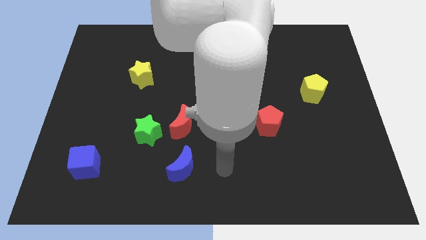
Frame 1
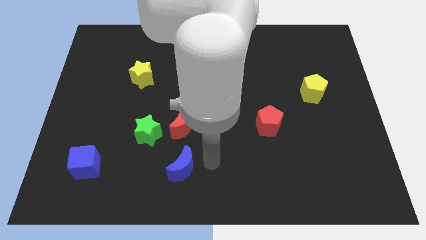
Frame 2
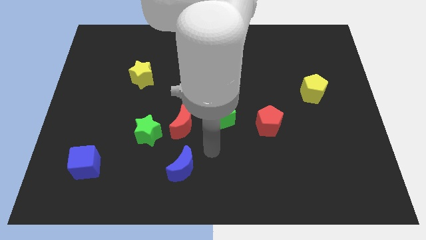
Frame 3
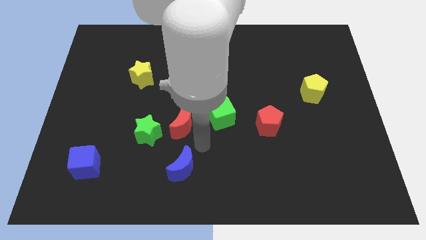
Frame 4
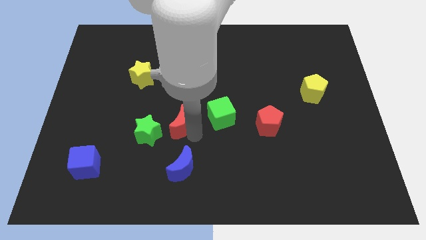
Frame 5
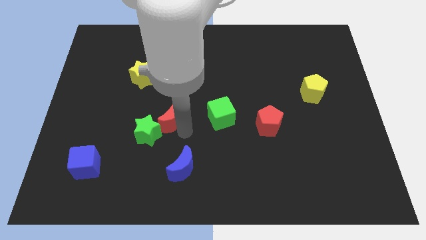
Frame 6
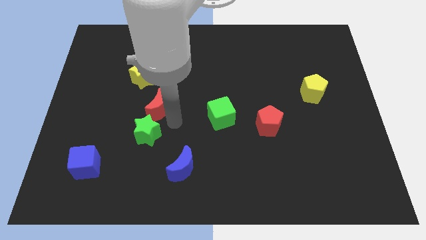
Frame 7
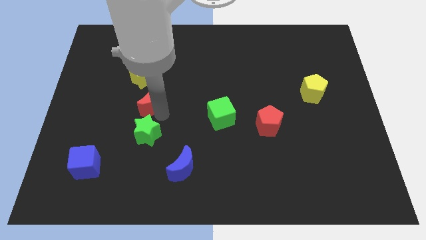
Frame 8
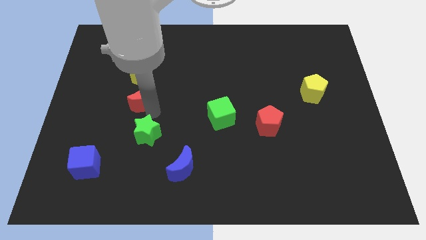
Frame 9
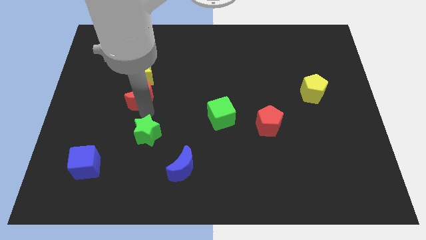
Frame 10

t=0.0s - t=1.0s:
pull the green star apart from the red moon

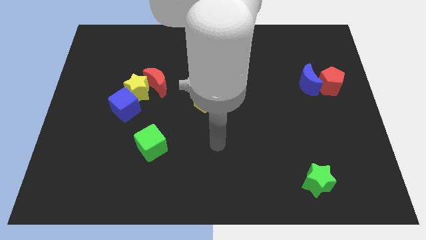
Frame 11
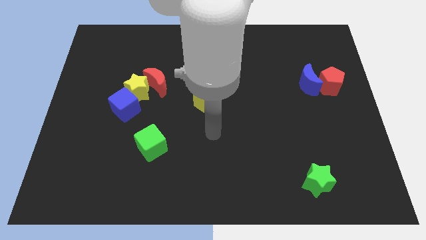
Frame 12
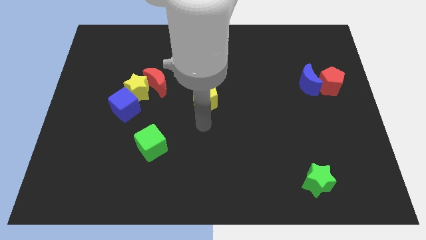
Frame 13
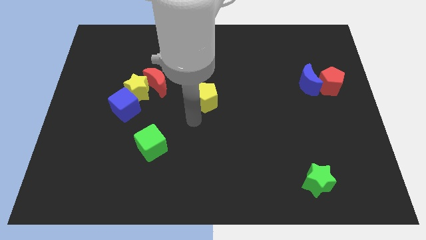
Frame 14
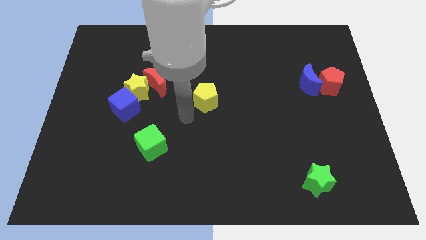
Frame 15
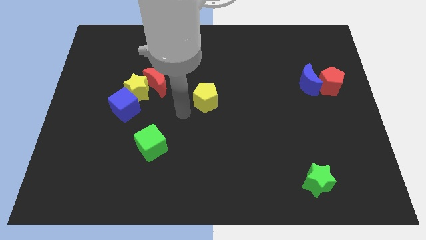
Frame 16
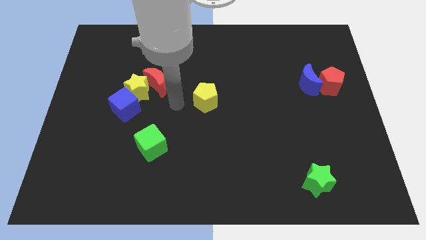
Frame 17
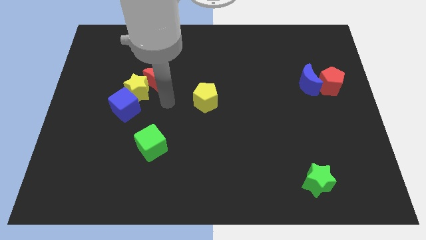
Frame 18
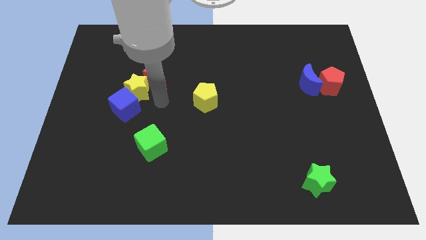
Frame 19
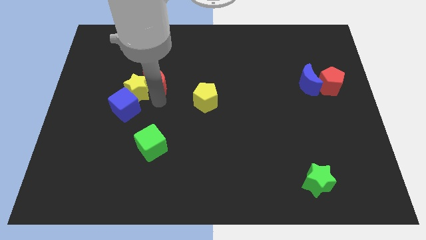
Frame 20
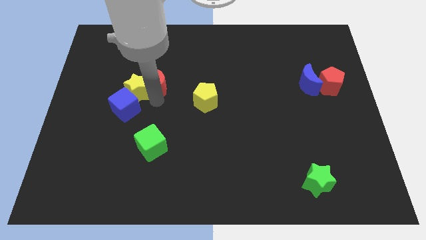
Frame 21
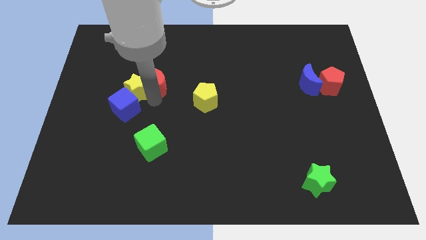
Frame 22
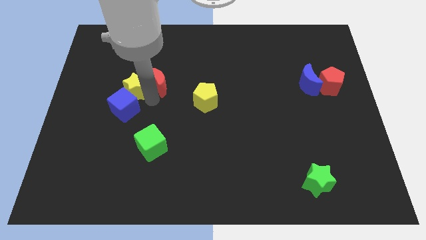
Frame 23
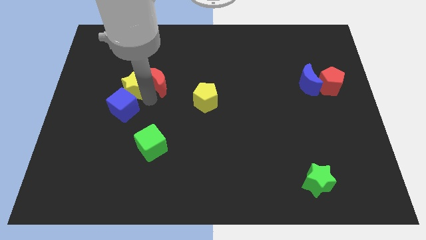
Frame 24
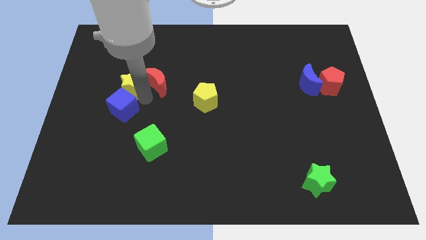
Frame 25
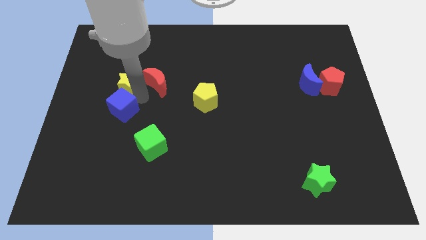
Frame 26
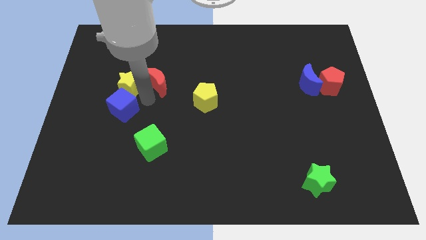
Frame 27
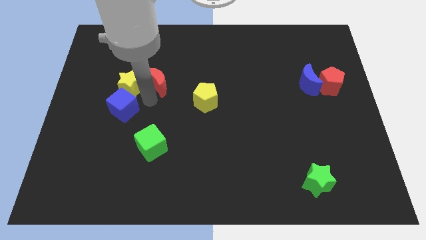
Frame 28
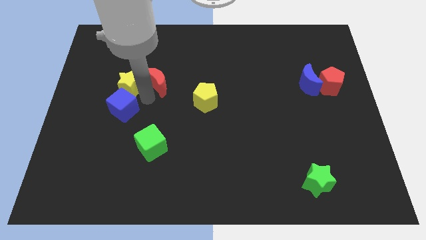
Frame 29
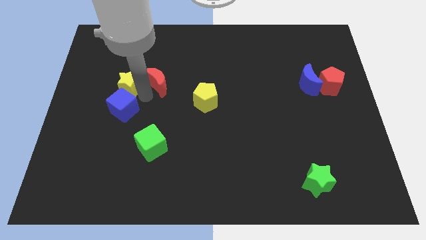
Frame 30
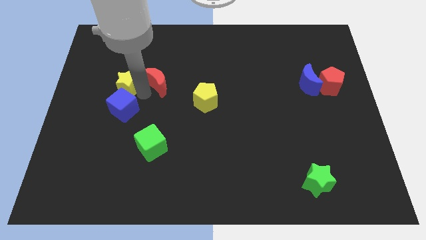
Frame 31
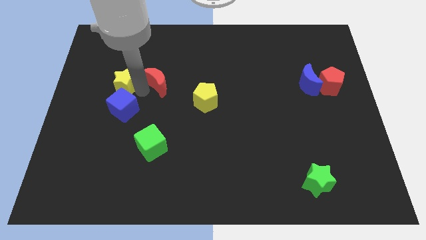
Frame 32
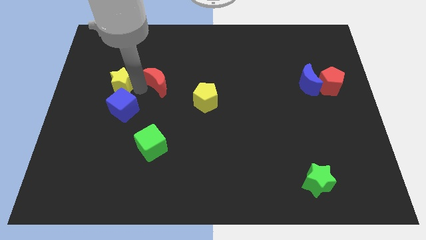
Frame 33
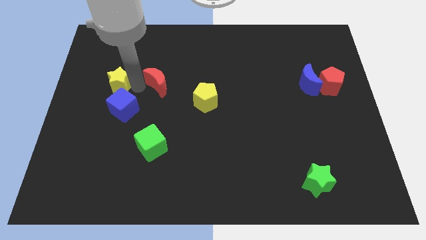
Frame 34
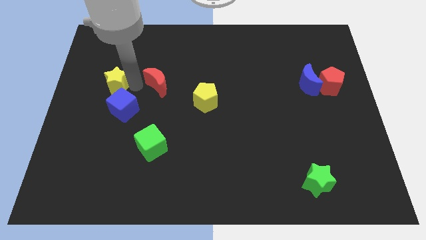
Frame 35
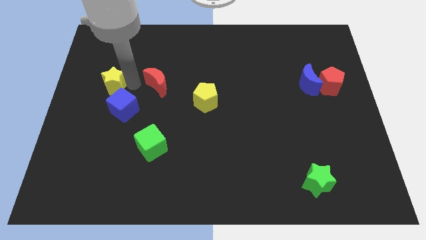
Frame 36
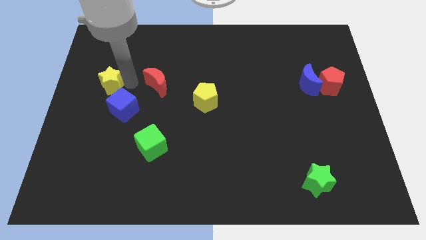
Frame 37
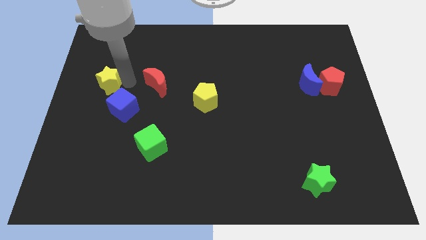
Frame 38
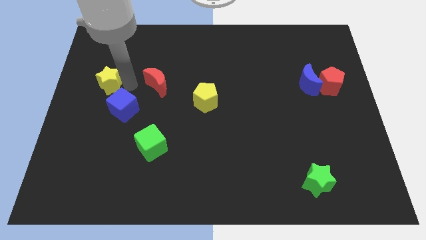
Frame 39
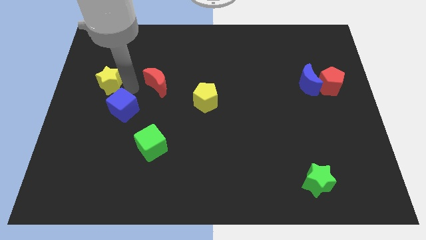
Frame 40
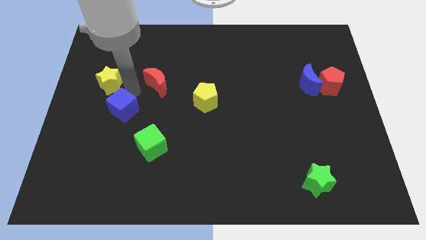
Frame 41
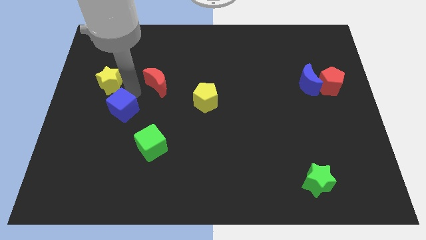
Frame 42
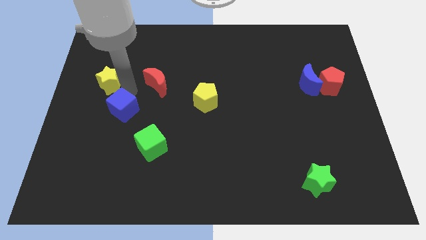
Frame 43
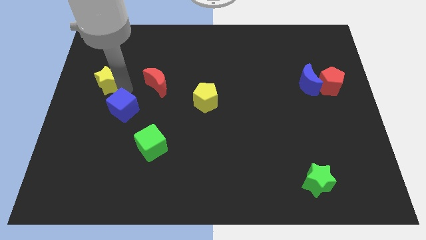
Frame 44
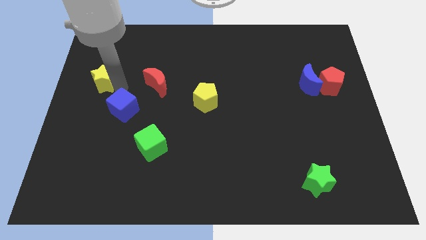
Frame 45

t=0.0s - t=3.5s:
separate the yellow star from the red moon and blue cube

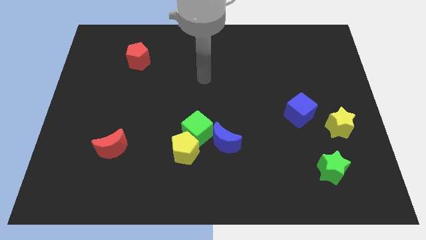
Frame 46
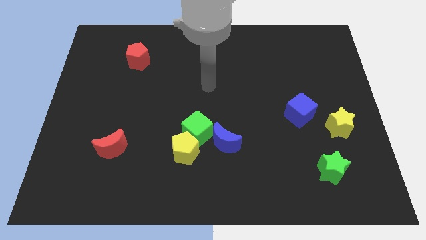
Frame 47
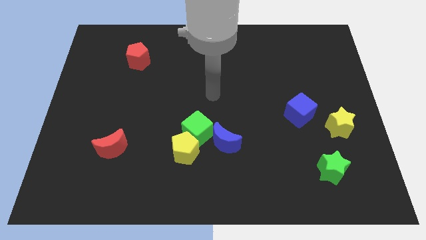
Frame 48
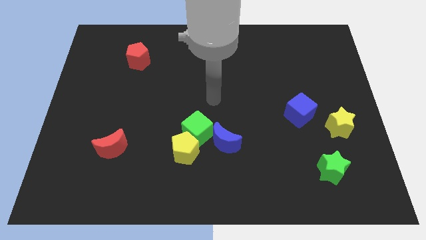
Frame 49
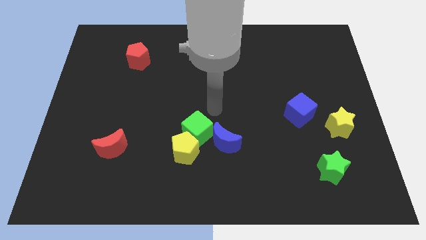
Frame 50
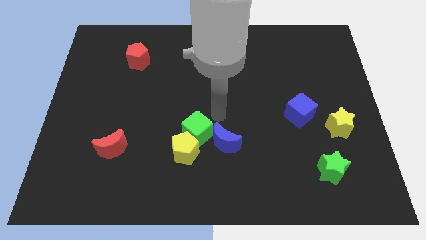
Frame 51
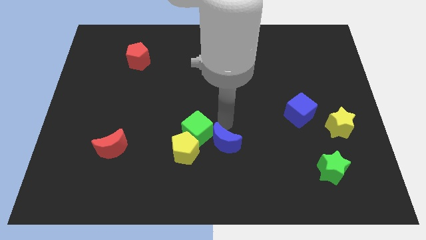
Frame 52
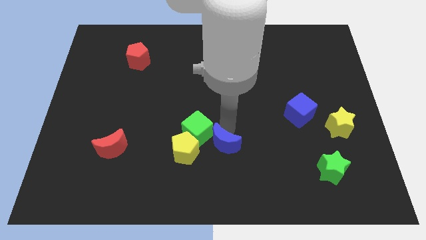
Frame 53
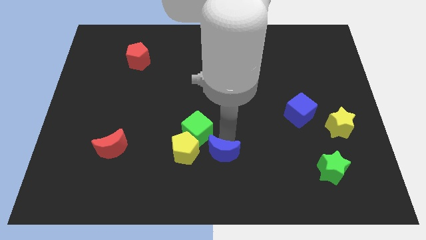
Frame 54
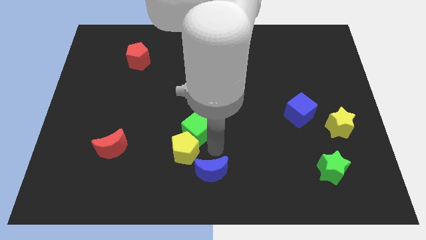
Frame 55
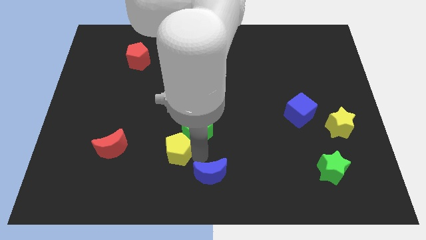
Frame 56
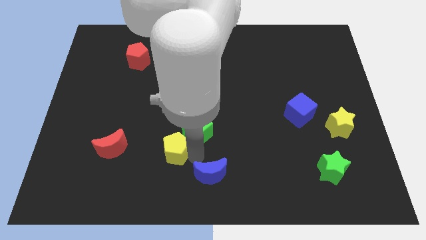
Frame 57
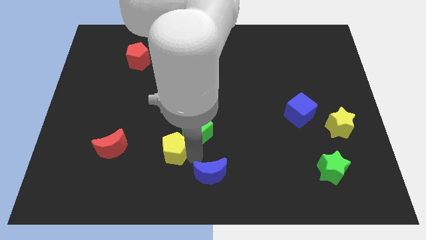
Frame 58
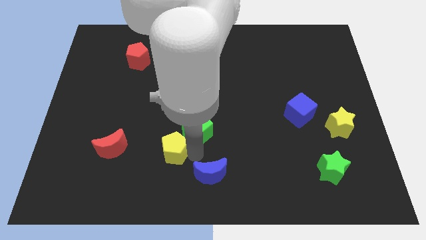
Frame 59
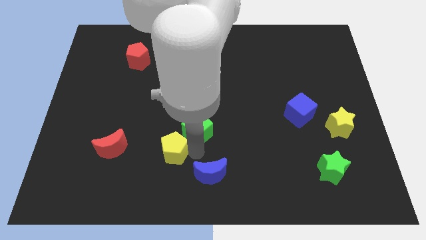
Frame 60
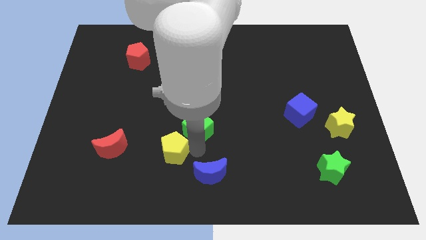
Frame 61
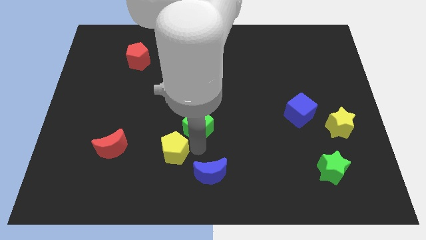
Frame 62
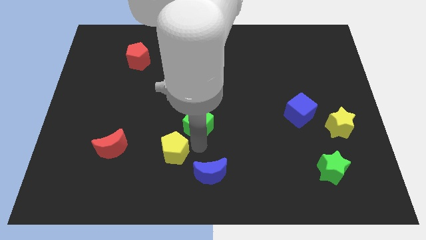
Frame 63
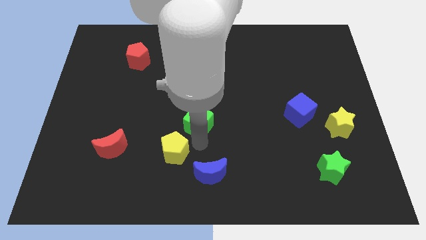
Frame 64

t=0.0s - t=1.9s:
move the green cube away from the yellow pentagon and blue moon

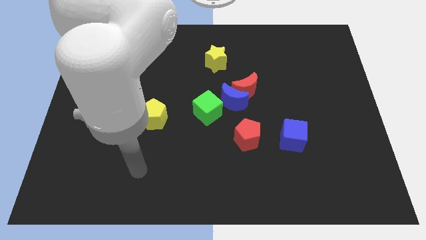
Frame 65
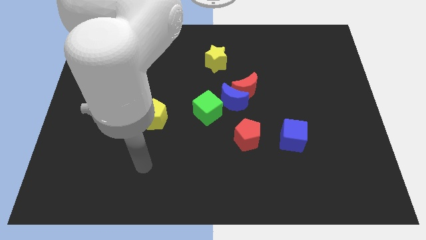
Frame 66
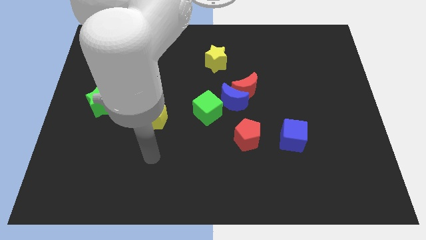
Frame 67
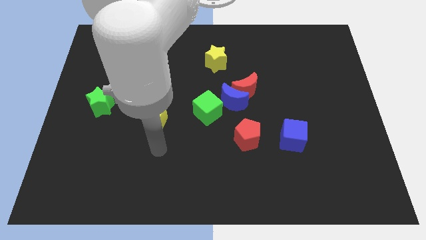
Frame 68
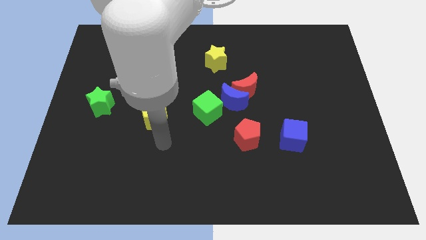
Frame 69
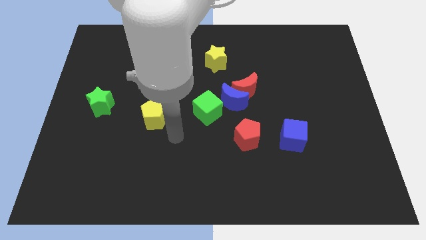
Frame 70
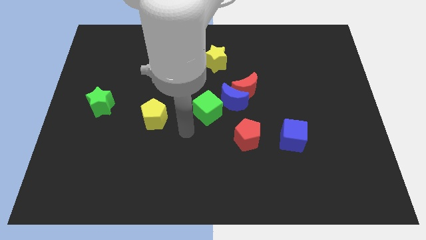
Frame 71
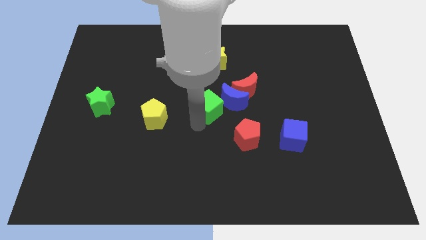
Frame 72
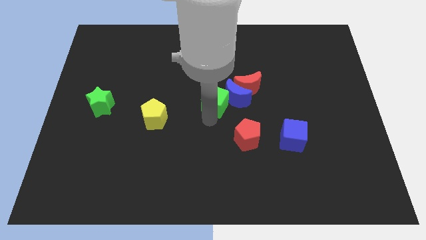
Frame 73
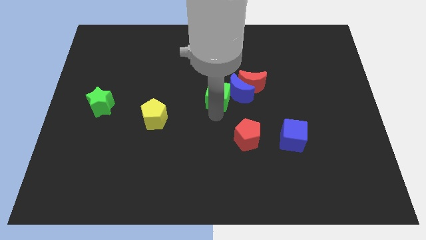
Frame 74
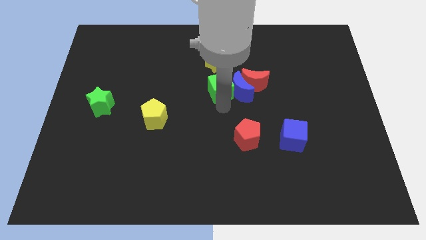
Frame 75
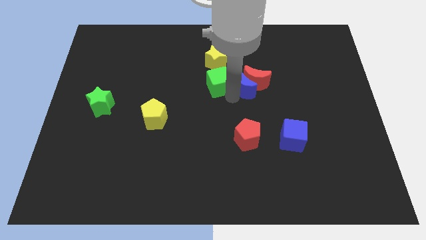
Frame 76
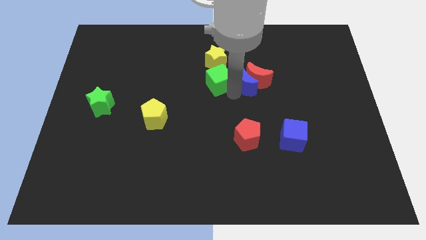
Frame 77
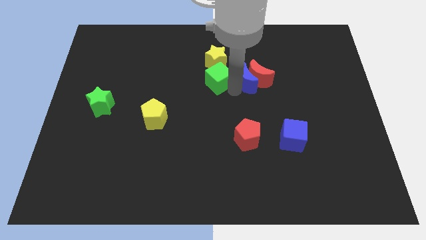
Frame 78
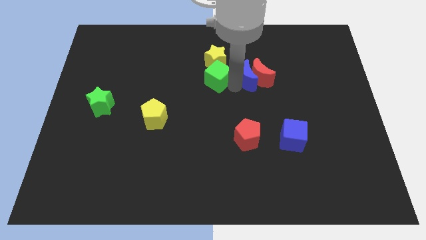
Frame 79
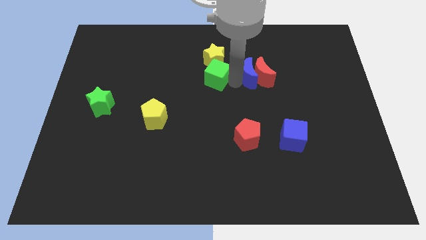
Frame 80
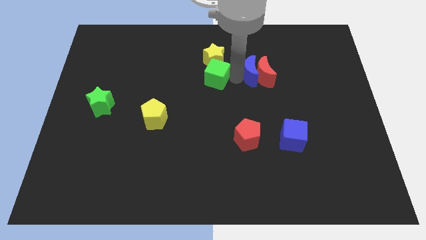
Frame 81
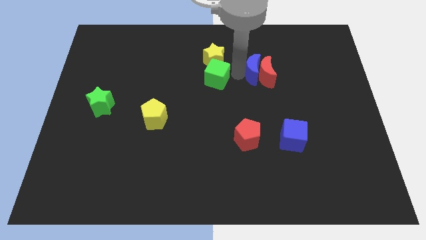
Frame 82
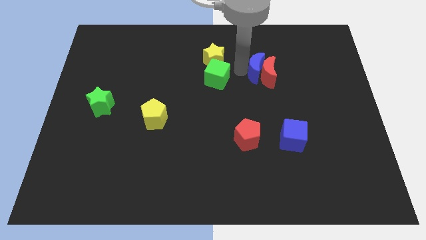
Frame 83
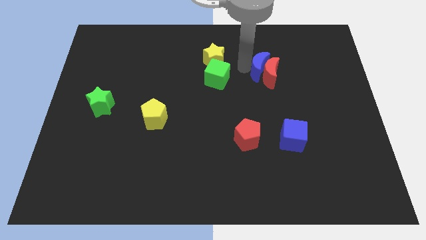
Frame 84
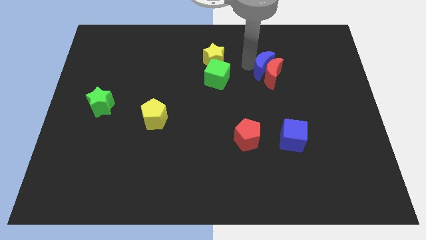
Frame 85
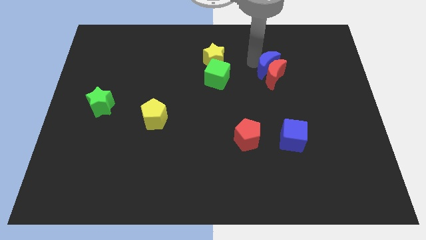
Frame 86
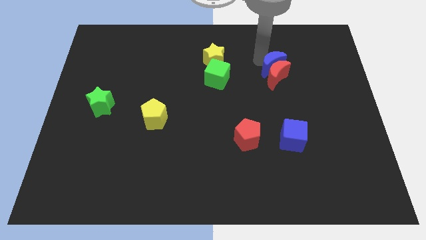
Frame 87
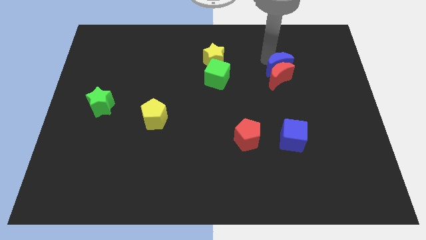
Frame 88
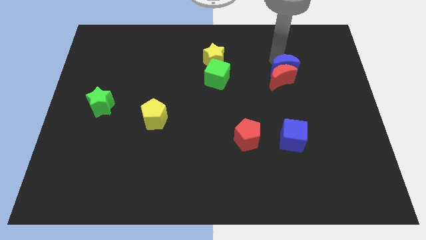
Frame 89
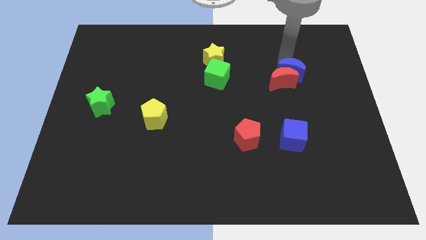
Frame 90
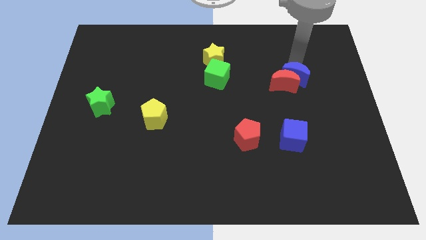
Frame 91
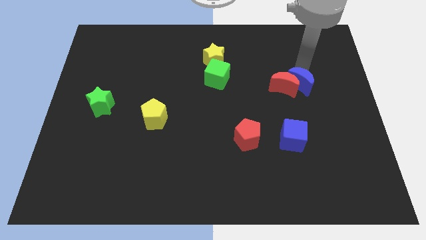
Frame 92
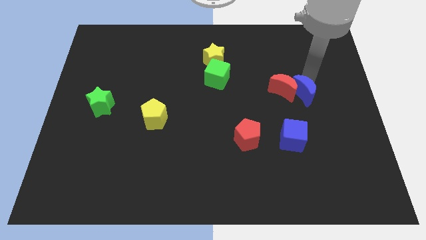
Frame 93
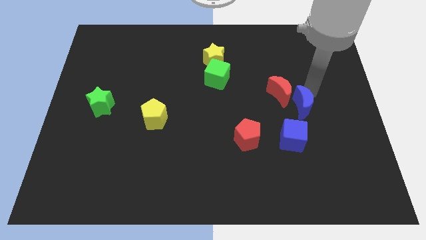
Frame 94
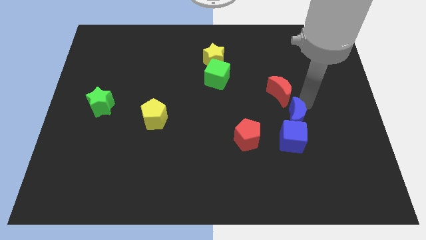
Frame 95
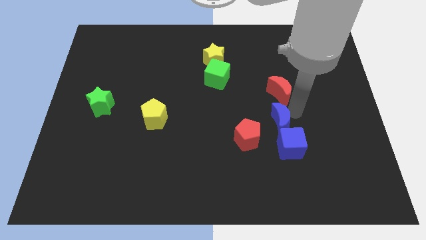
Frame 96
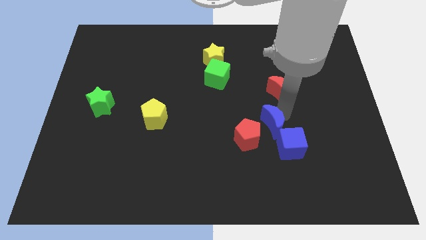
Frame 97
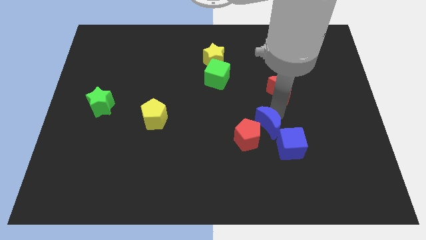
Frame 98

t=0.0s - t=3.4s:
pull the red moon apart from the blue moon
